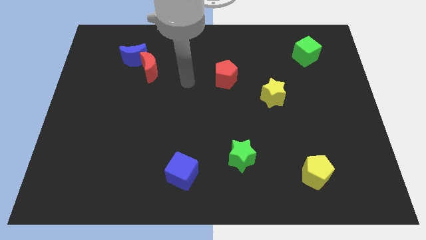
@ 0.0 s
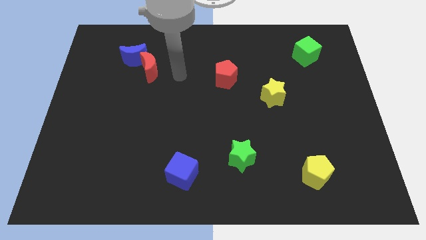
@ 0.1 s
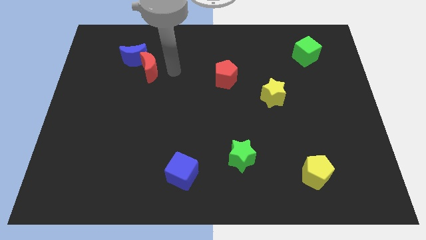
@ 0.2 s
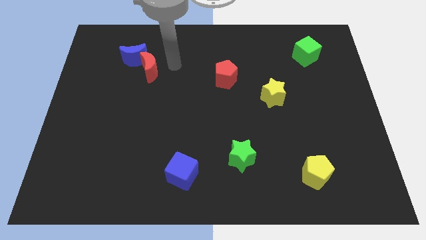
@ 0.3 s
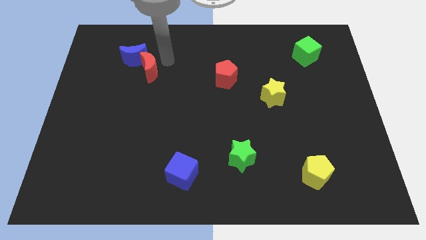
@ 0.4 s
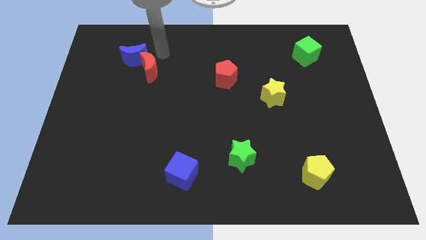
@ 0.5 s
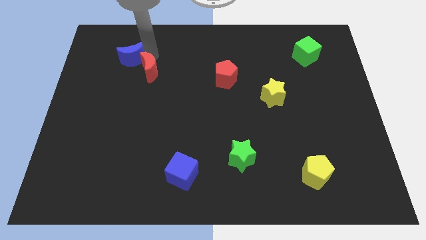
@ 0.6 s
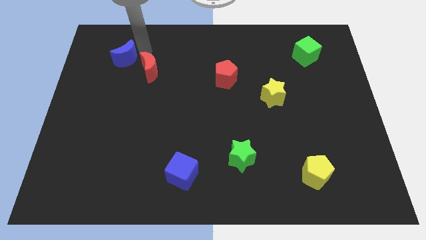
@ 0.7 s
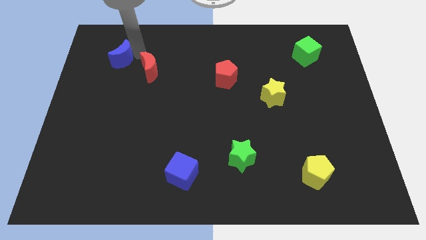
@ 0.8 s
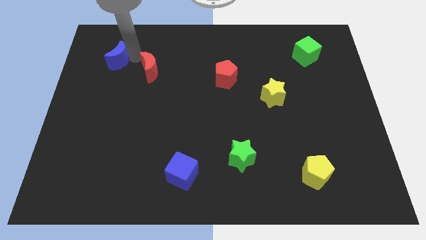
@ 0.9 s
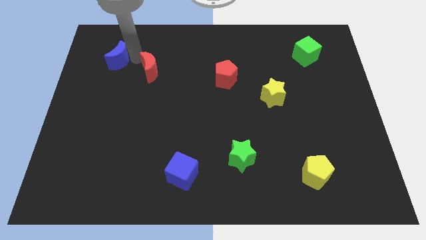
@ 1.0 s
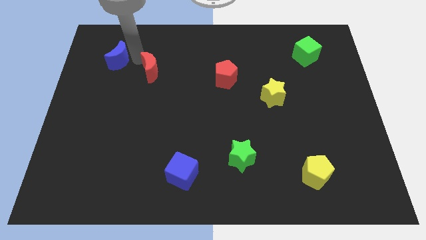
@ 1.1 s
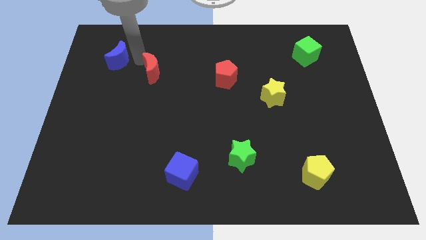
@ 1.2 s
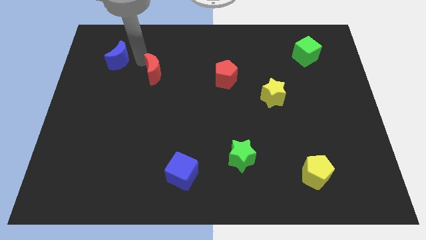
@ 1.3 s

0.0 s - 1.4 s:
move the red moon away from the blue moon

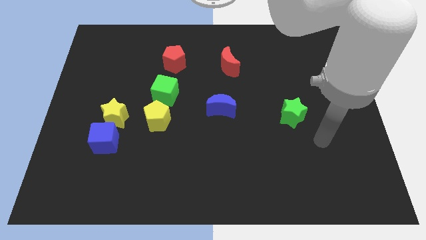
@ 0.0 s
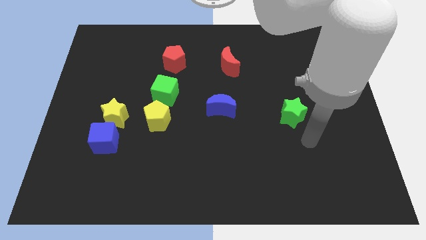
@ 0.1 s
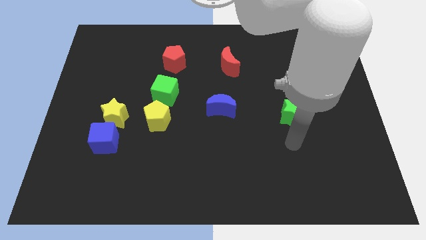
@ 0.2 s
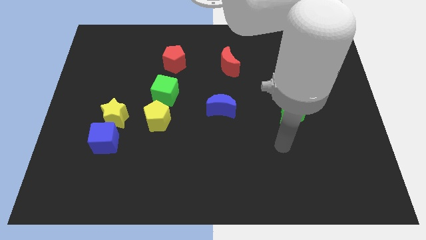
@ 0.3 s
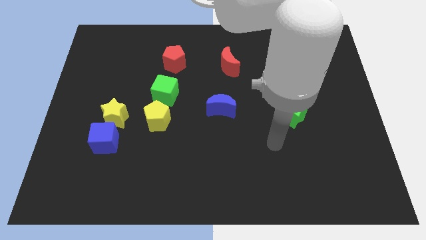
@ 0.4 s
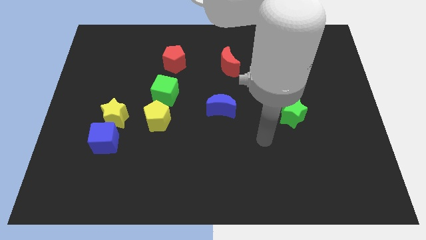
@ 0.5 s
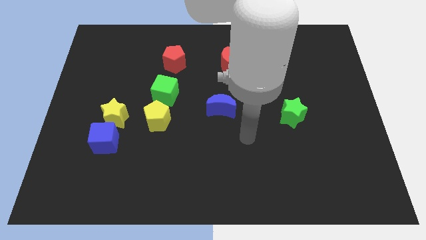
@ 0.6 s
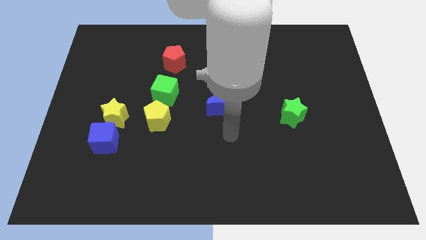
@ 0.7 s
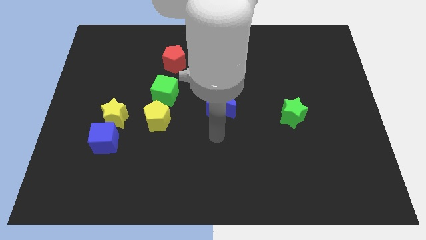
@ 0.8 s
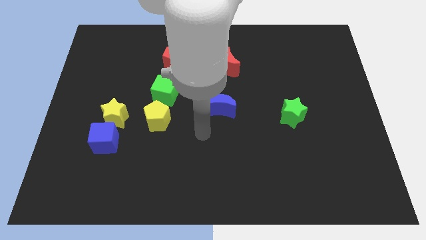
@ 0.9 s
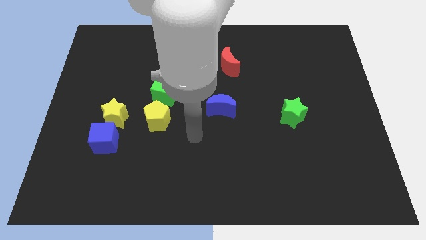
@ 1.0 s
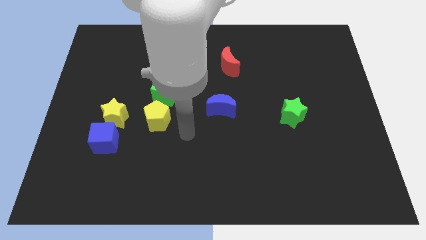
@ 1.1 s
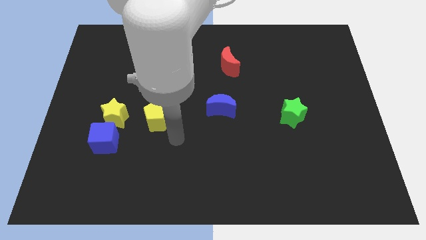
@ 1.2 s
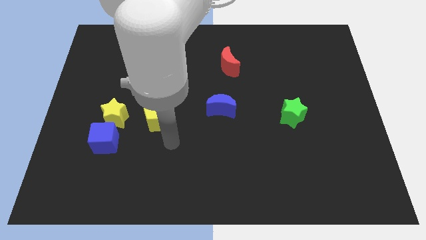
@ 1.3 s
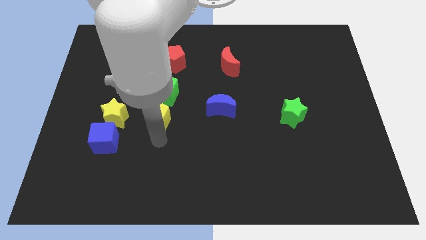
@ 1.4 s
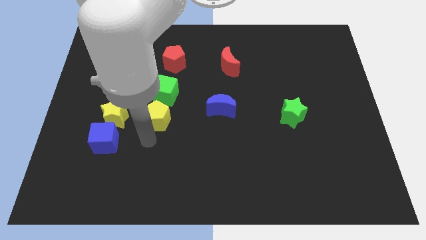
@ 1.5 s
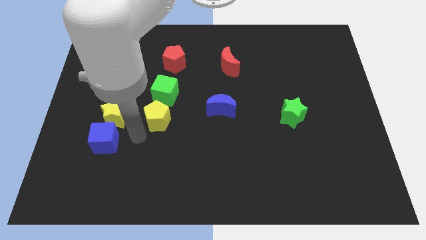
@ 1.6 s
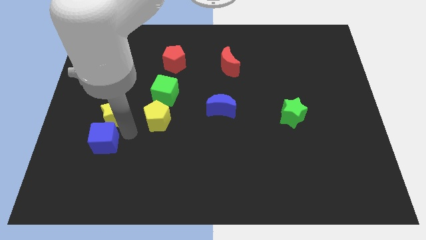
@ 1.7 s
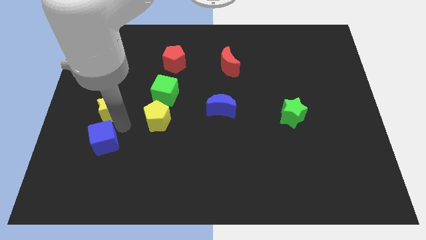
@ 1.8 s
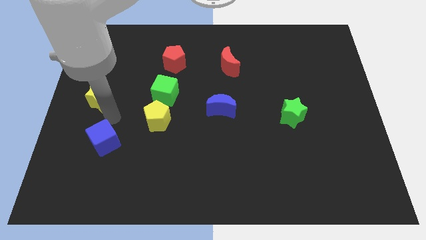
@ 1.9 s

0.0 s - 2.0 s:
move the blue cube away from the yellow star

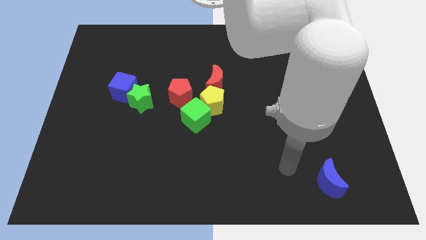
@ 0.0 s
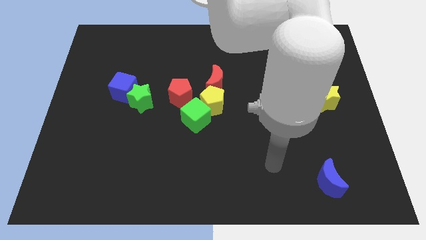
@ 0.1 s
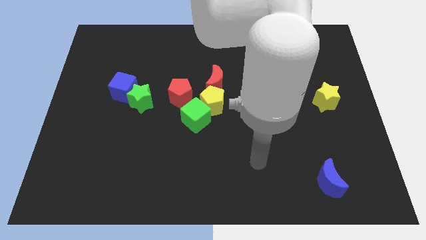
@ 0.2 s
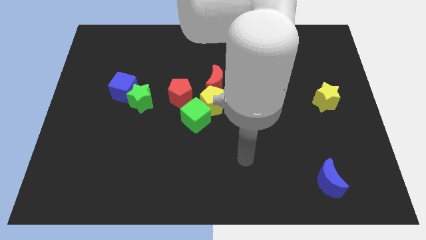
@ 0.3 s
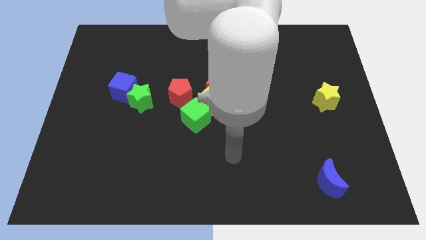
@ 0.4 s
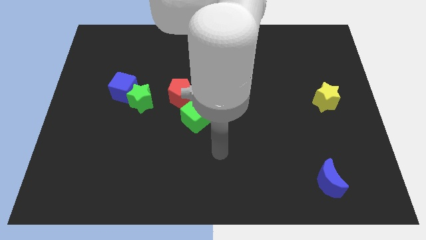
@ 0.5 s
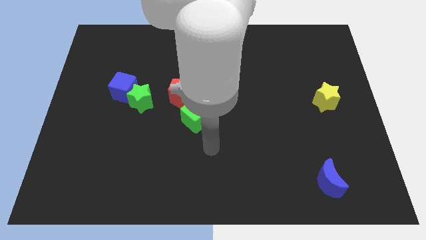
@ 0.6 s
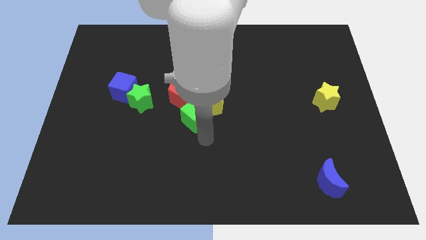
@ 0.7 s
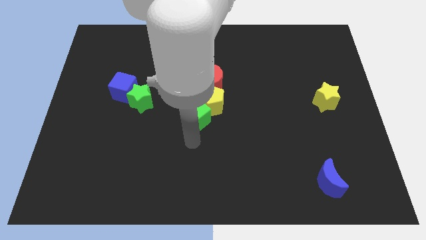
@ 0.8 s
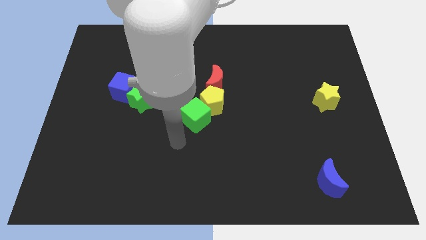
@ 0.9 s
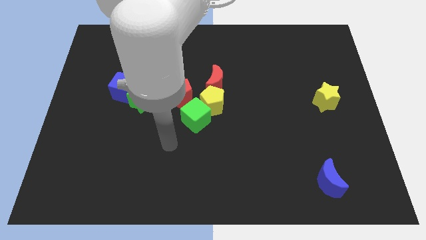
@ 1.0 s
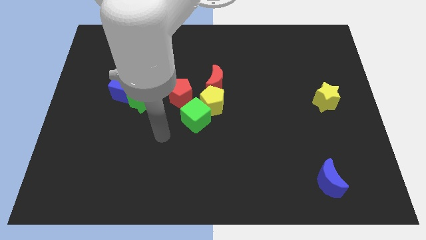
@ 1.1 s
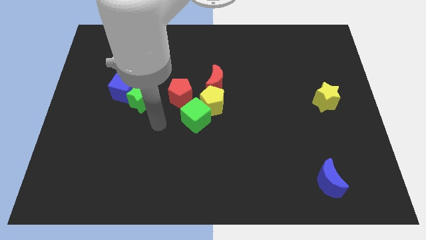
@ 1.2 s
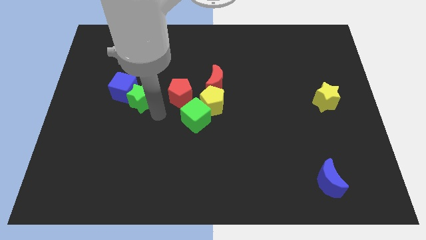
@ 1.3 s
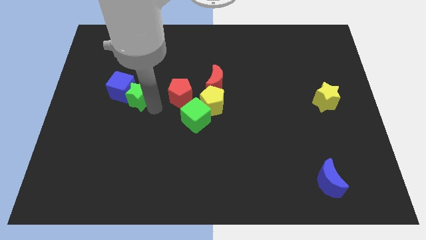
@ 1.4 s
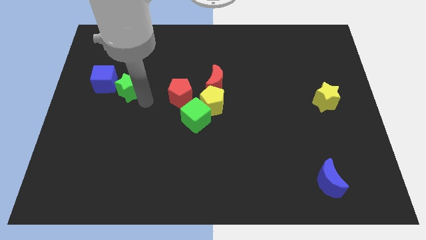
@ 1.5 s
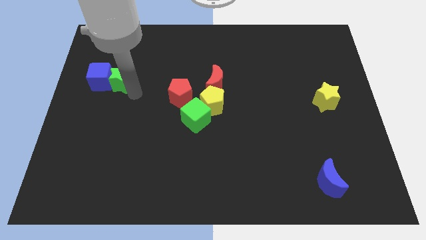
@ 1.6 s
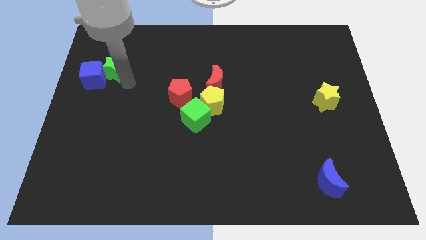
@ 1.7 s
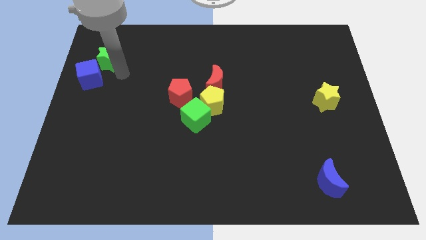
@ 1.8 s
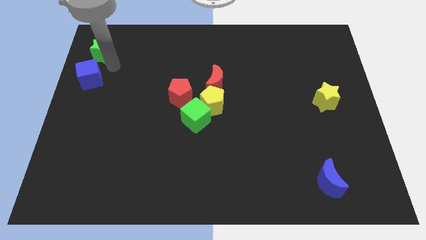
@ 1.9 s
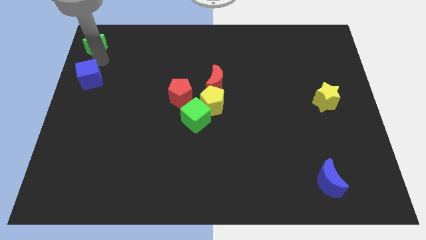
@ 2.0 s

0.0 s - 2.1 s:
separate the blue cube from the green star

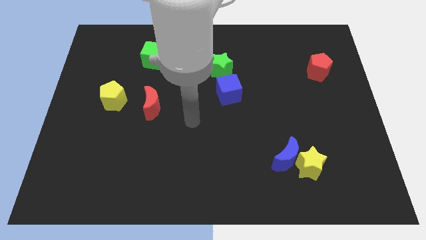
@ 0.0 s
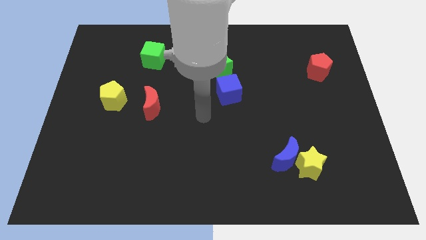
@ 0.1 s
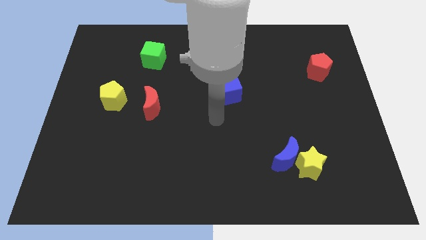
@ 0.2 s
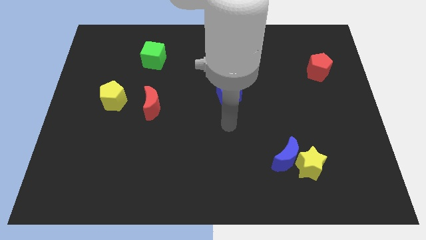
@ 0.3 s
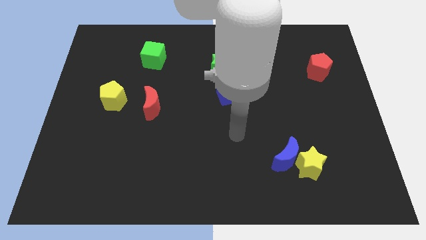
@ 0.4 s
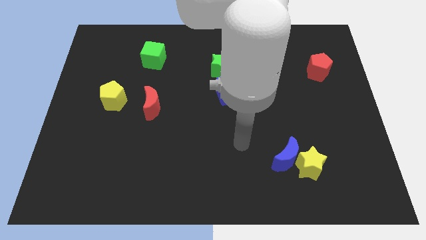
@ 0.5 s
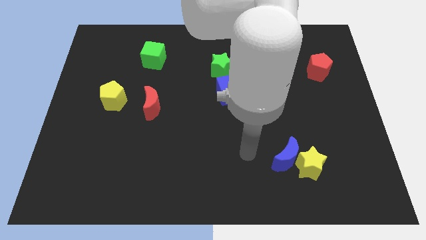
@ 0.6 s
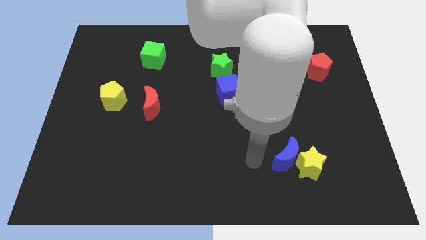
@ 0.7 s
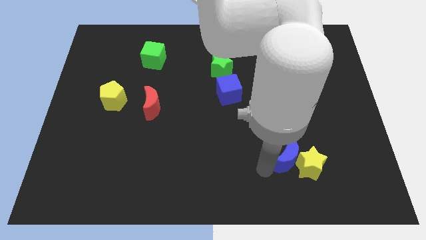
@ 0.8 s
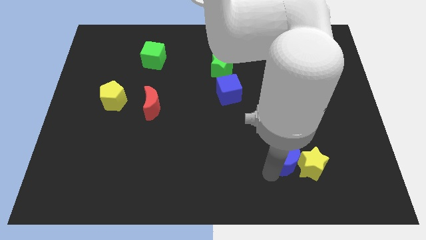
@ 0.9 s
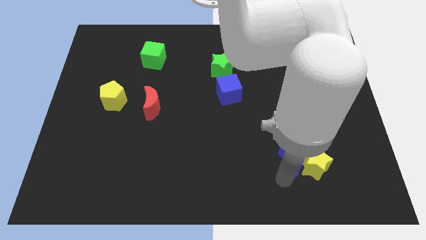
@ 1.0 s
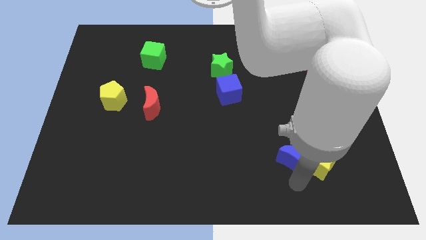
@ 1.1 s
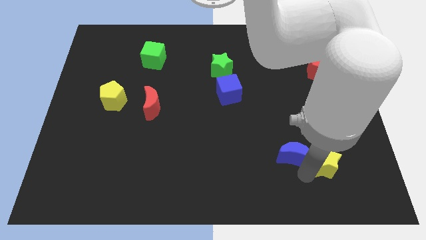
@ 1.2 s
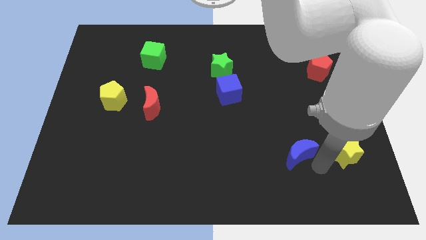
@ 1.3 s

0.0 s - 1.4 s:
pull the blue moon apart from the yellow star

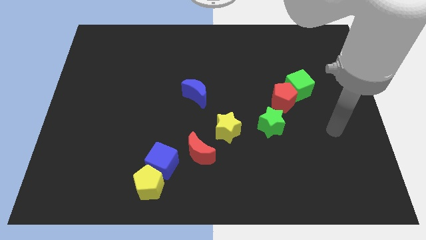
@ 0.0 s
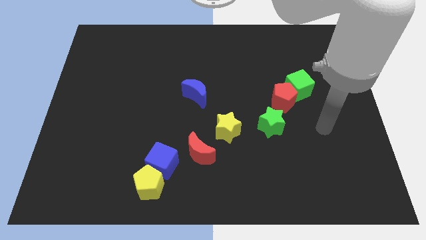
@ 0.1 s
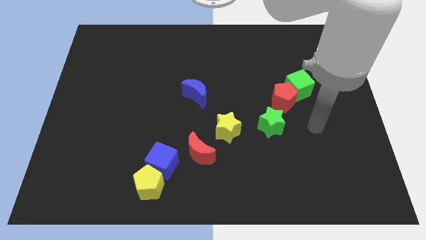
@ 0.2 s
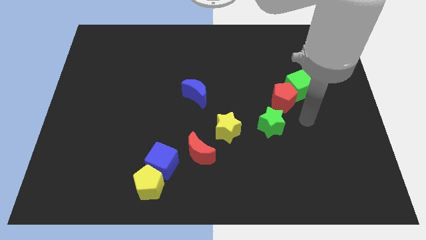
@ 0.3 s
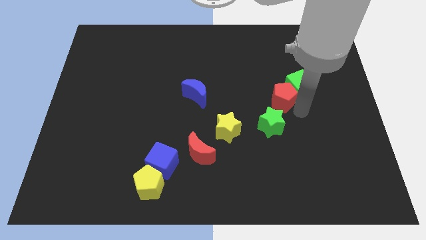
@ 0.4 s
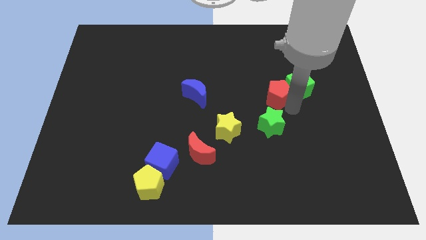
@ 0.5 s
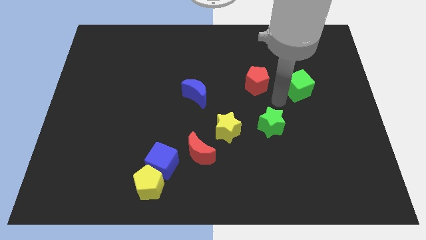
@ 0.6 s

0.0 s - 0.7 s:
pull the green cube apart from the red pentagon

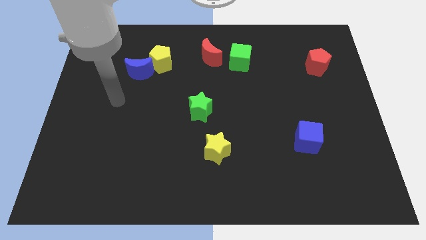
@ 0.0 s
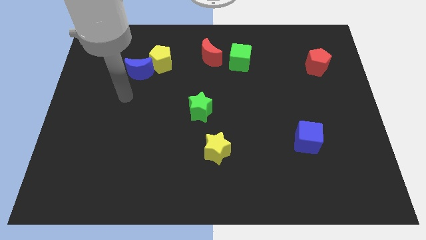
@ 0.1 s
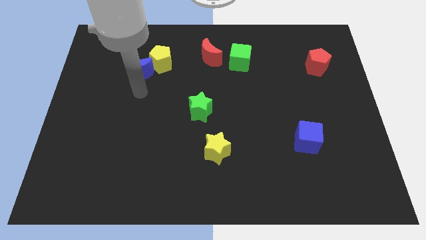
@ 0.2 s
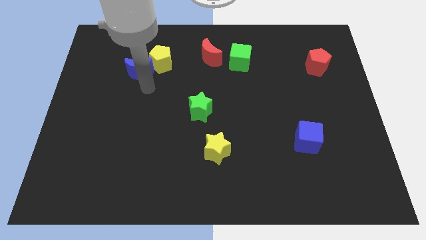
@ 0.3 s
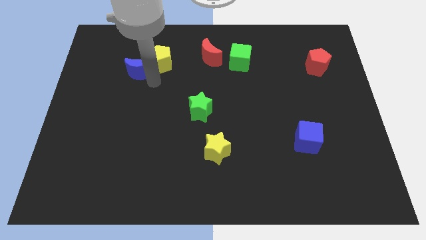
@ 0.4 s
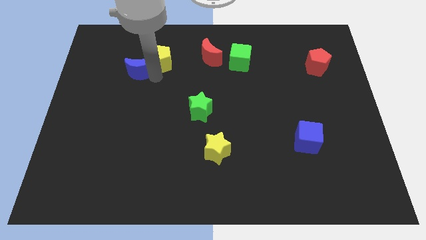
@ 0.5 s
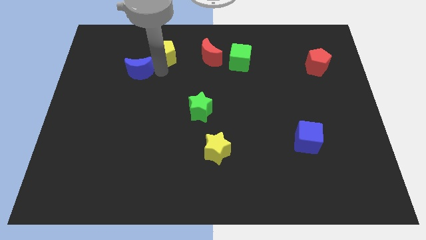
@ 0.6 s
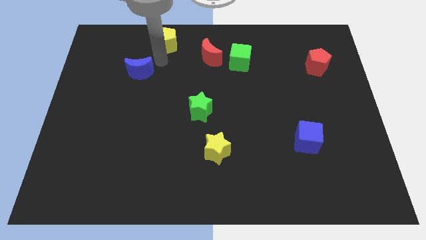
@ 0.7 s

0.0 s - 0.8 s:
move the blue moon away from the yellow pentagon

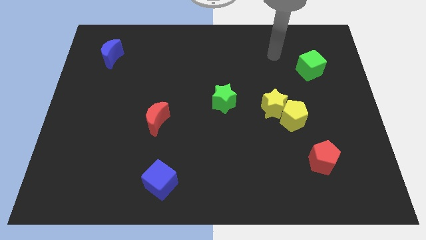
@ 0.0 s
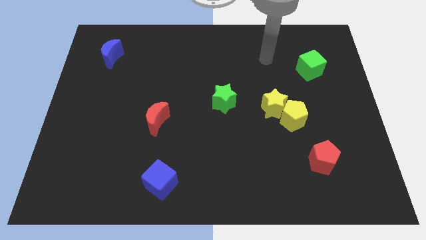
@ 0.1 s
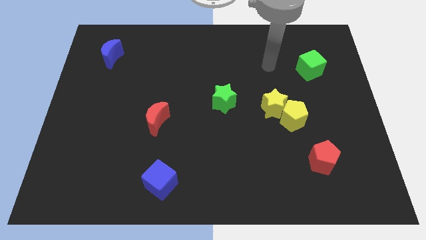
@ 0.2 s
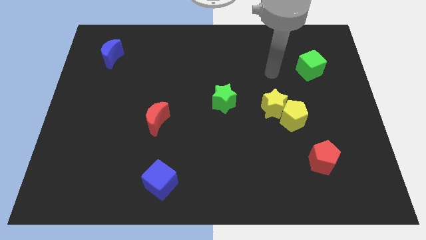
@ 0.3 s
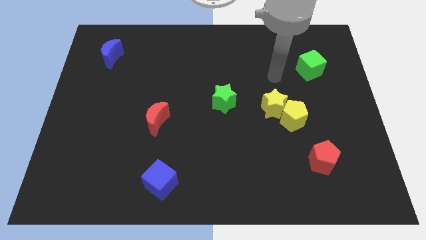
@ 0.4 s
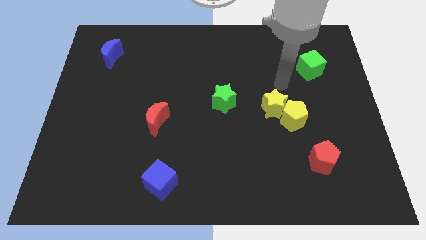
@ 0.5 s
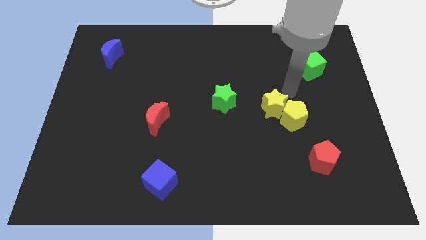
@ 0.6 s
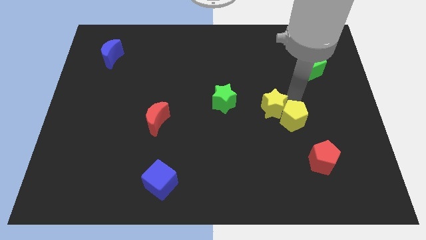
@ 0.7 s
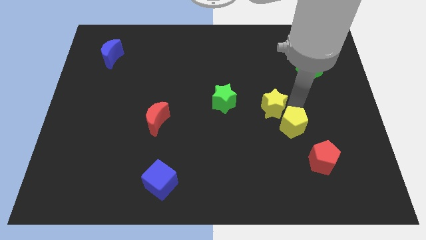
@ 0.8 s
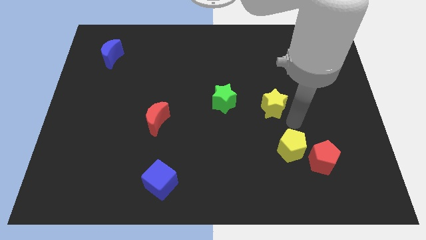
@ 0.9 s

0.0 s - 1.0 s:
move the yellow star away from the yellow pentagon
